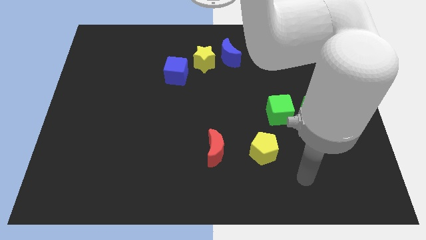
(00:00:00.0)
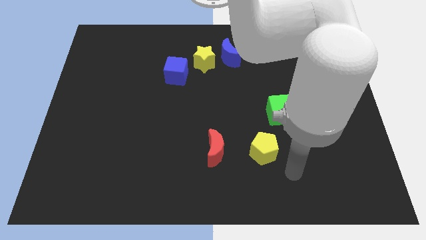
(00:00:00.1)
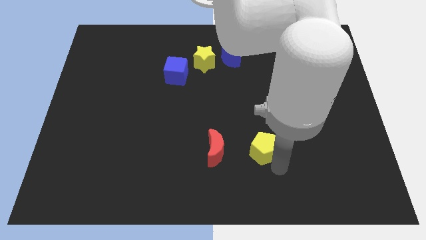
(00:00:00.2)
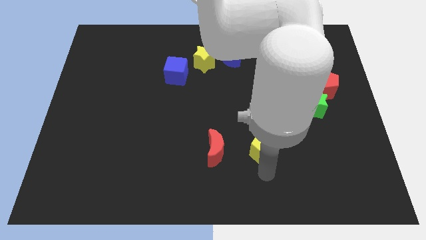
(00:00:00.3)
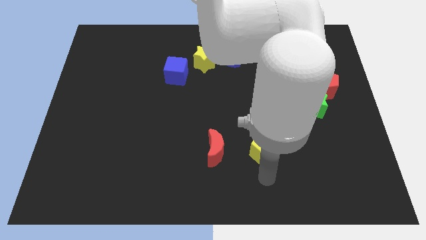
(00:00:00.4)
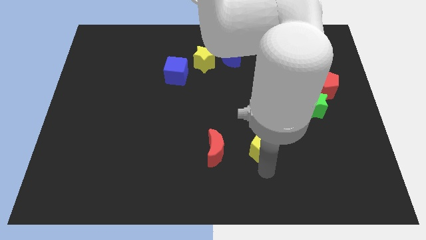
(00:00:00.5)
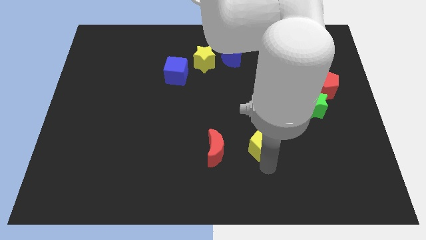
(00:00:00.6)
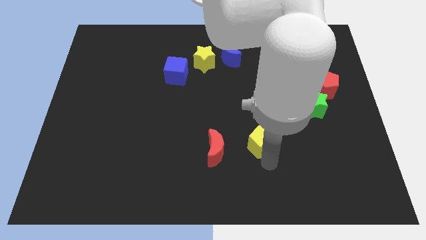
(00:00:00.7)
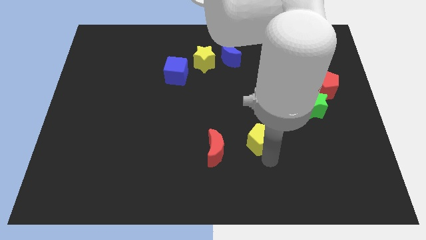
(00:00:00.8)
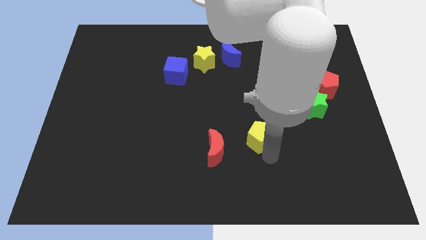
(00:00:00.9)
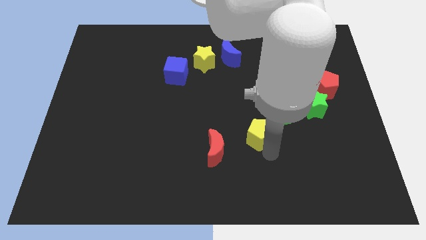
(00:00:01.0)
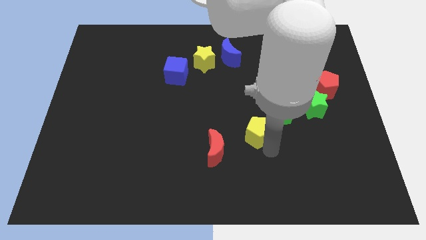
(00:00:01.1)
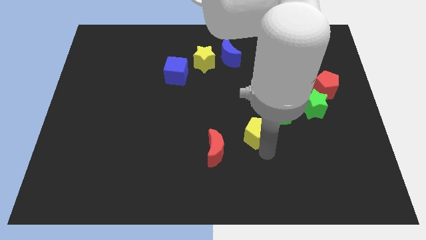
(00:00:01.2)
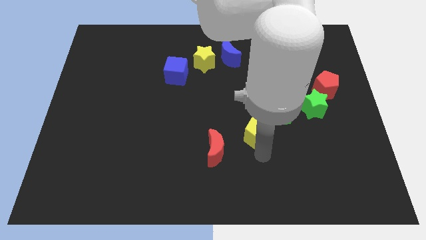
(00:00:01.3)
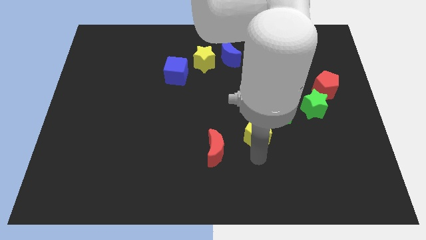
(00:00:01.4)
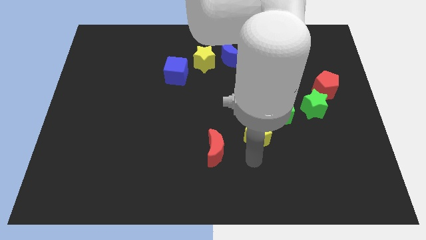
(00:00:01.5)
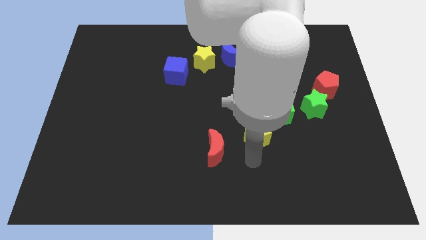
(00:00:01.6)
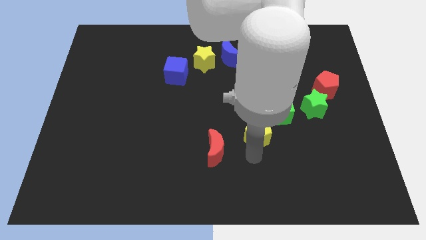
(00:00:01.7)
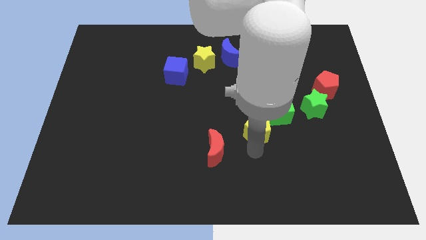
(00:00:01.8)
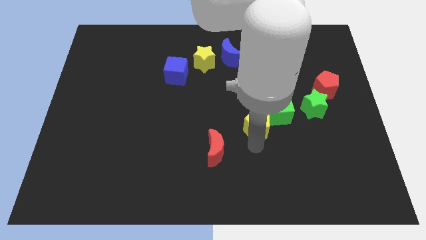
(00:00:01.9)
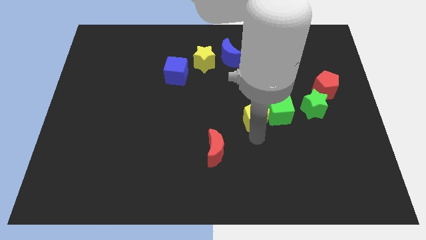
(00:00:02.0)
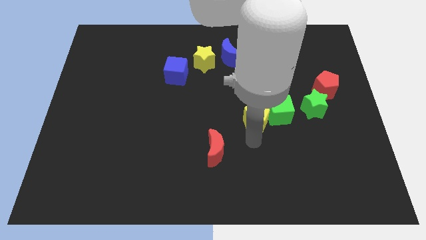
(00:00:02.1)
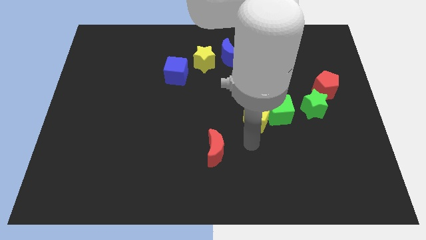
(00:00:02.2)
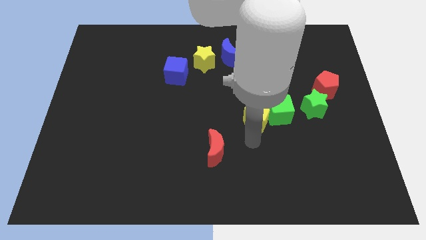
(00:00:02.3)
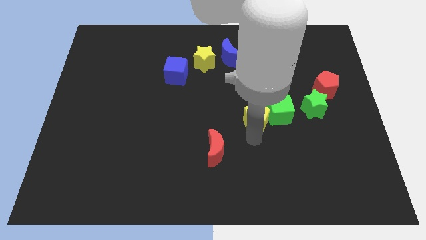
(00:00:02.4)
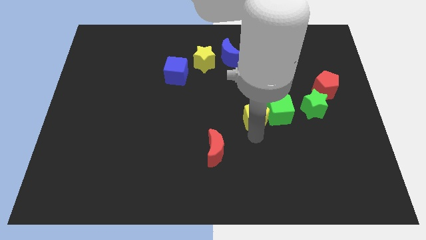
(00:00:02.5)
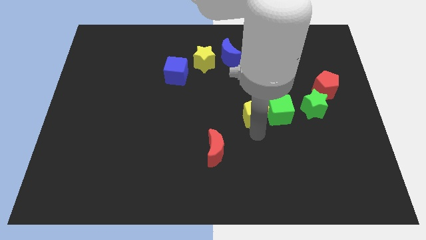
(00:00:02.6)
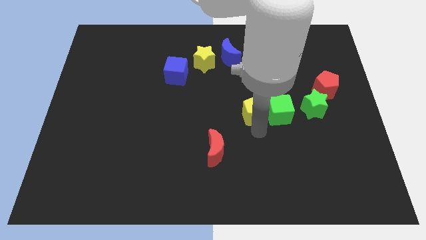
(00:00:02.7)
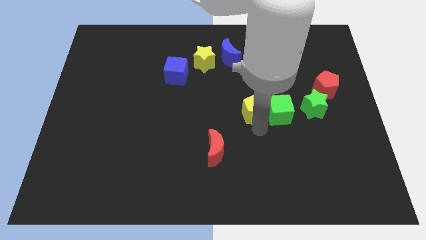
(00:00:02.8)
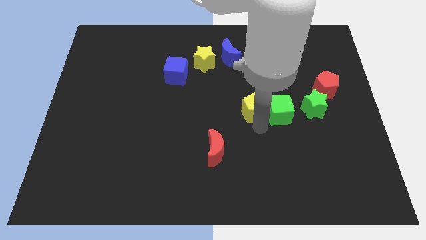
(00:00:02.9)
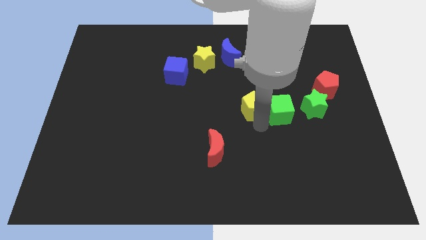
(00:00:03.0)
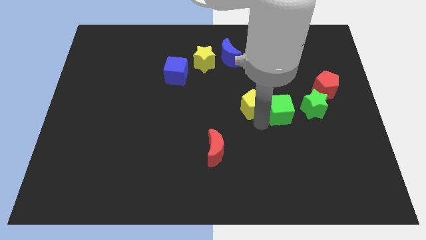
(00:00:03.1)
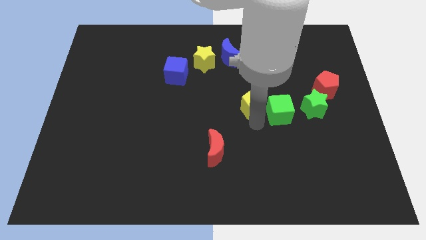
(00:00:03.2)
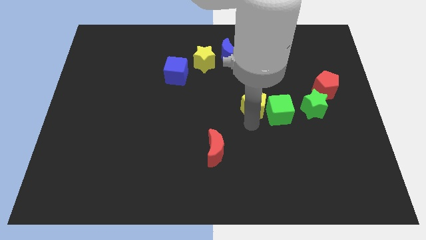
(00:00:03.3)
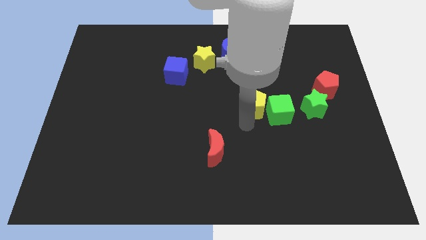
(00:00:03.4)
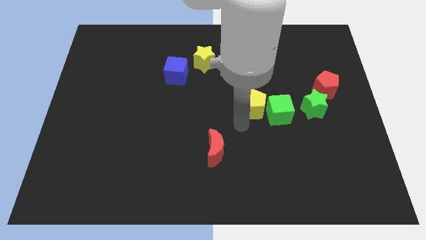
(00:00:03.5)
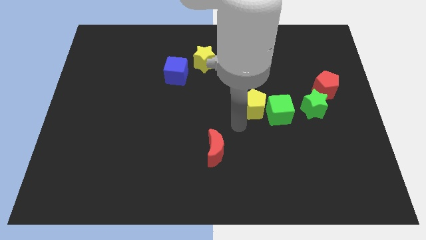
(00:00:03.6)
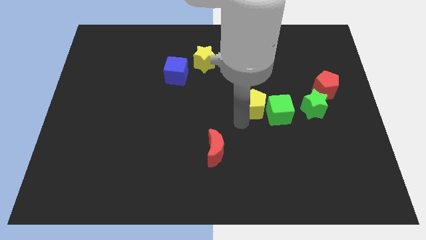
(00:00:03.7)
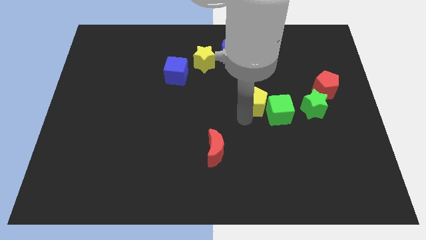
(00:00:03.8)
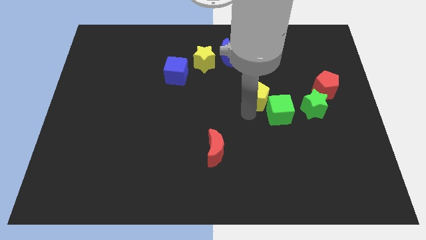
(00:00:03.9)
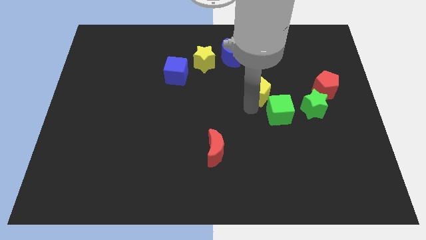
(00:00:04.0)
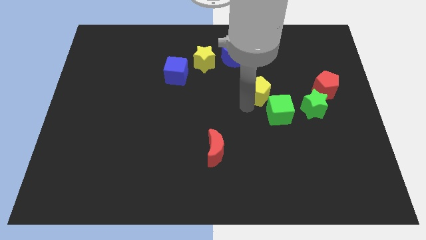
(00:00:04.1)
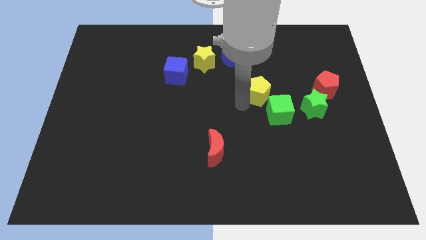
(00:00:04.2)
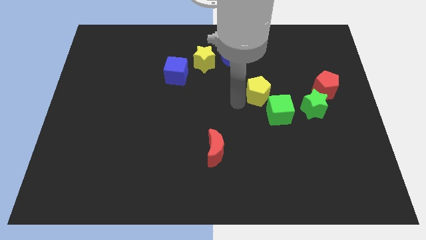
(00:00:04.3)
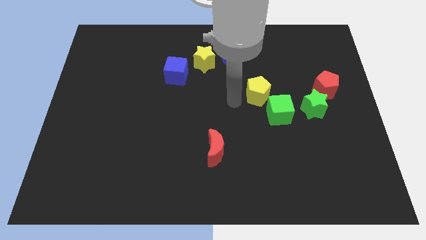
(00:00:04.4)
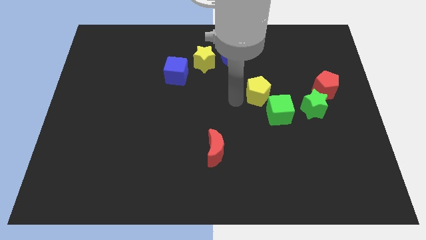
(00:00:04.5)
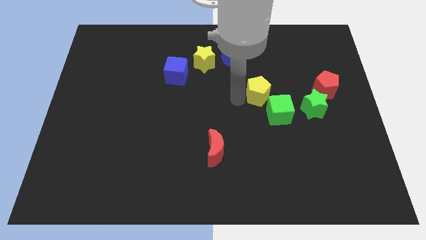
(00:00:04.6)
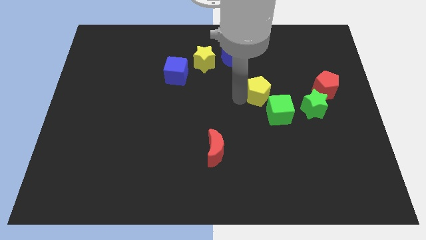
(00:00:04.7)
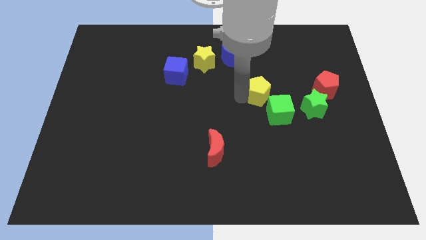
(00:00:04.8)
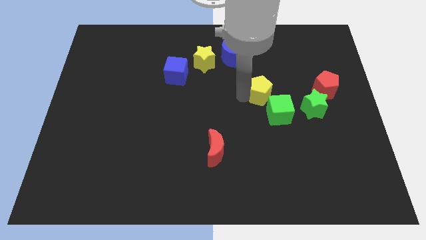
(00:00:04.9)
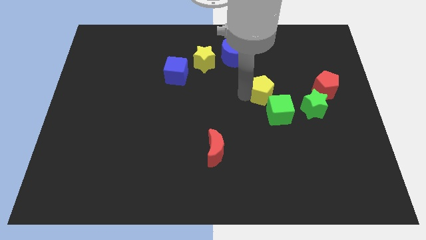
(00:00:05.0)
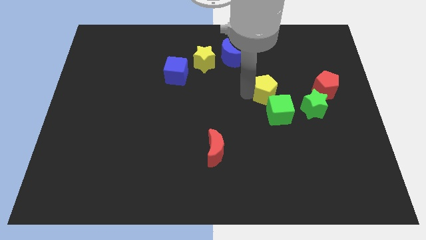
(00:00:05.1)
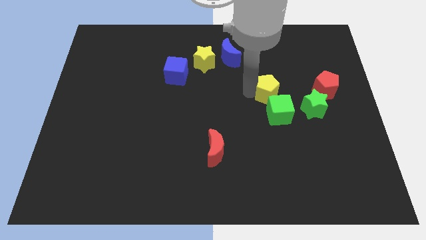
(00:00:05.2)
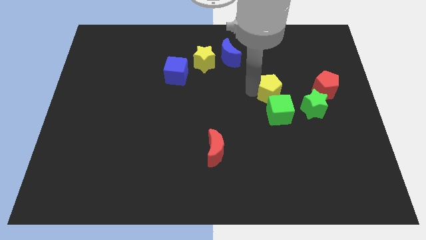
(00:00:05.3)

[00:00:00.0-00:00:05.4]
push the yellow pentagon to the top left of the green star
